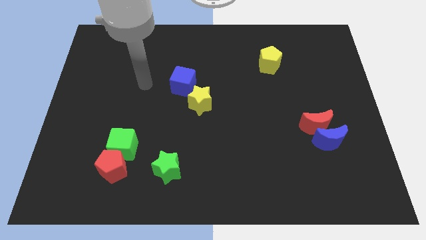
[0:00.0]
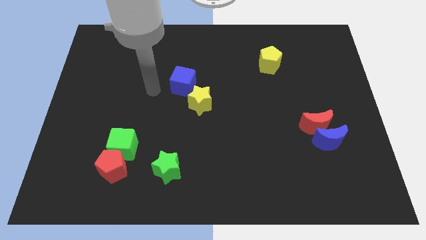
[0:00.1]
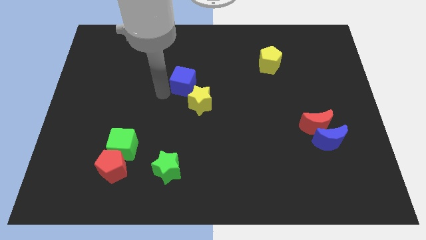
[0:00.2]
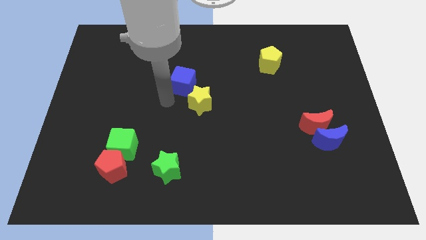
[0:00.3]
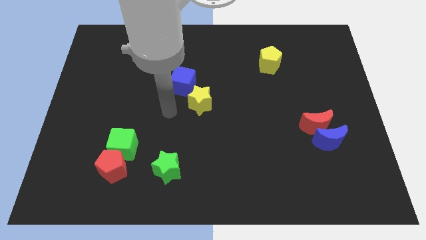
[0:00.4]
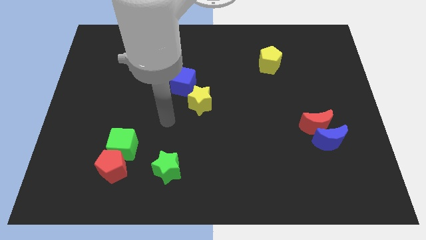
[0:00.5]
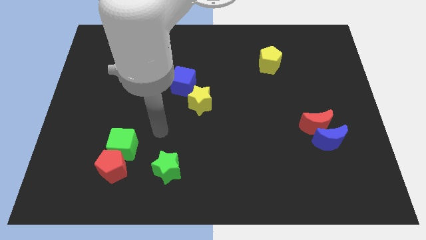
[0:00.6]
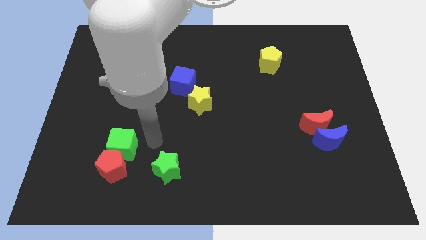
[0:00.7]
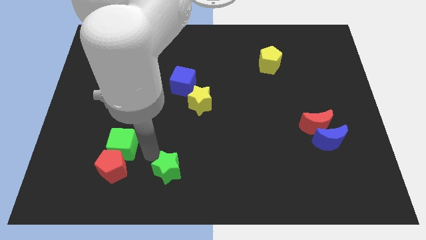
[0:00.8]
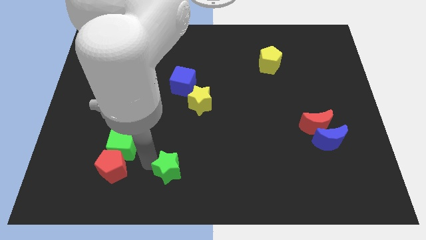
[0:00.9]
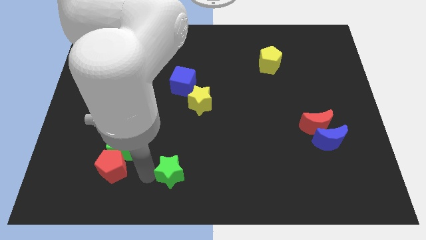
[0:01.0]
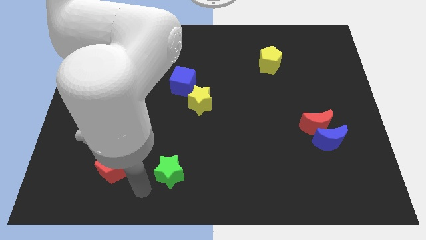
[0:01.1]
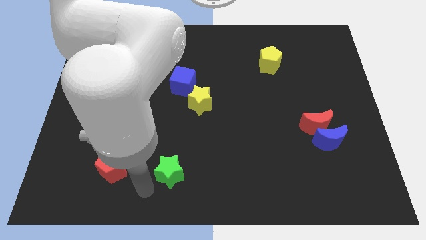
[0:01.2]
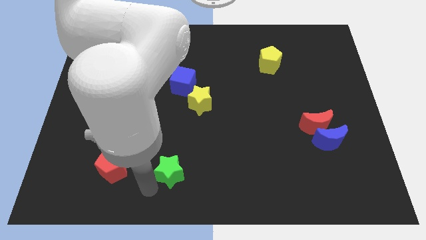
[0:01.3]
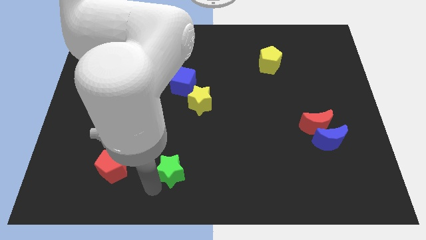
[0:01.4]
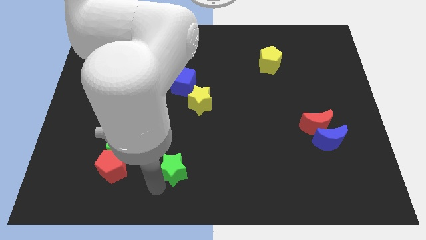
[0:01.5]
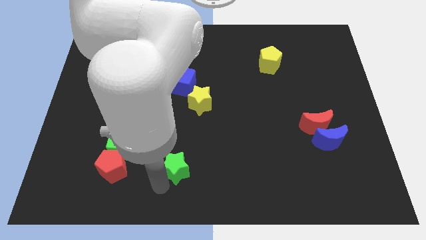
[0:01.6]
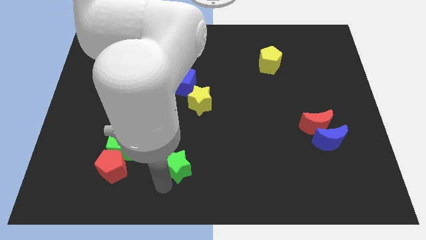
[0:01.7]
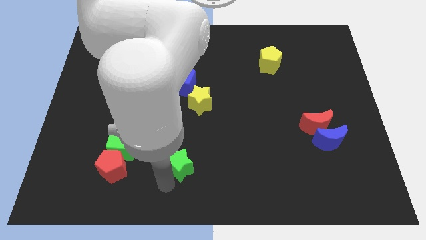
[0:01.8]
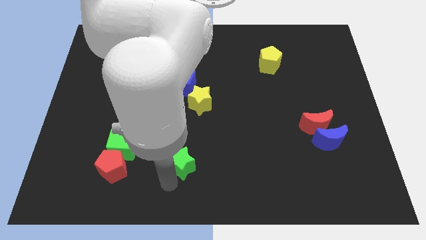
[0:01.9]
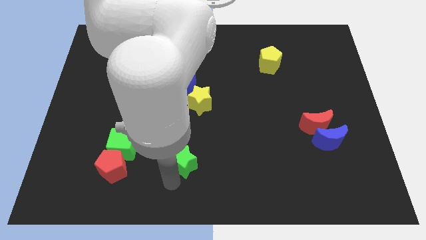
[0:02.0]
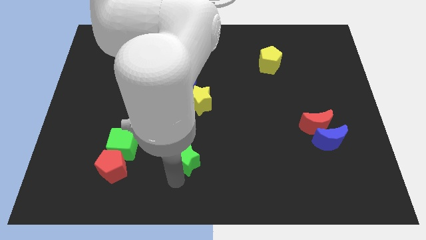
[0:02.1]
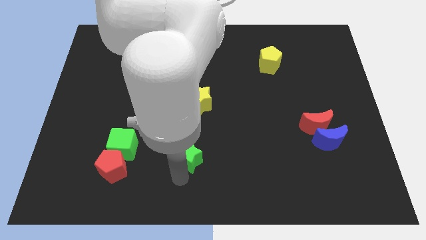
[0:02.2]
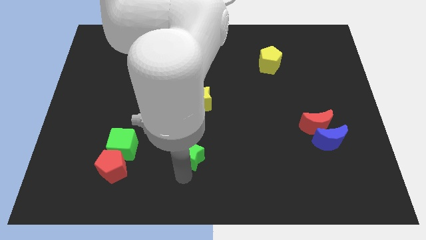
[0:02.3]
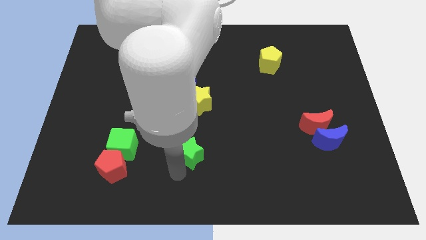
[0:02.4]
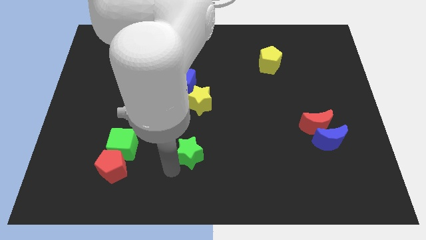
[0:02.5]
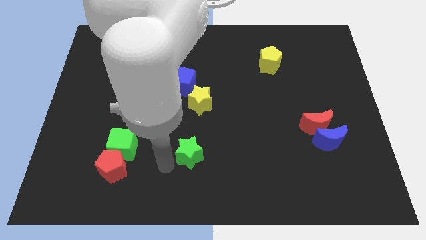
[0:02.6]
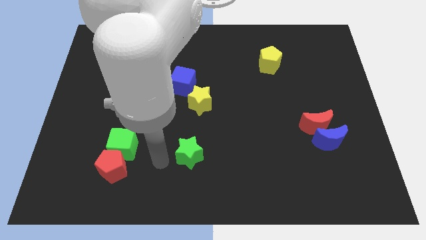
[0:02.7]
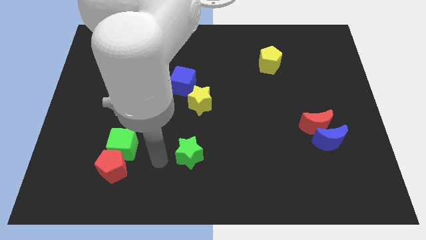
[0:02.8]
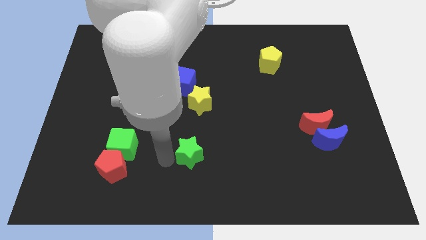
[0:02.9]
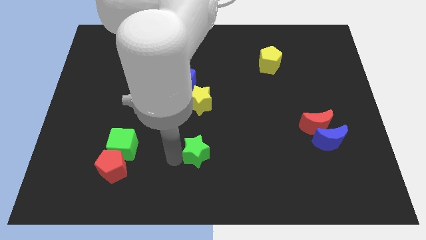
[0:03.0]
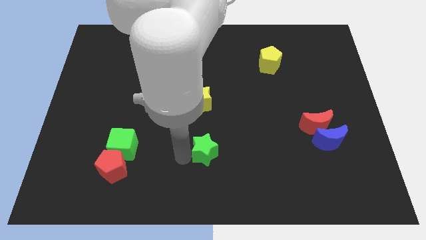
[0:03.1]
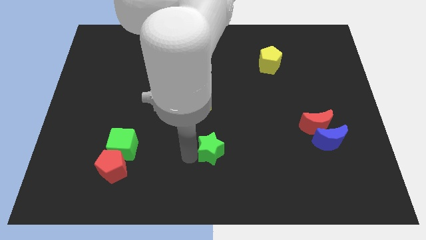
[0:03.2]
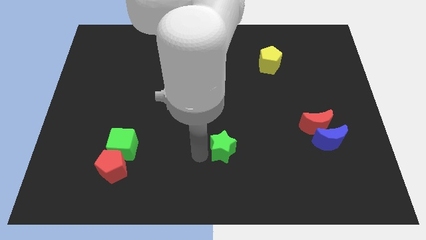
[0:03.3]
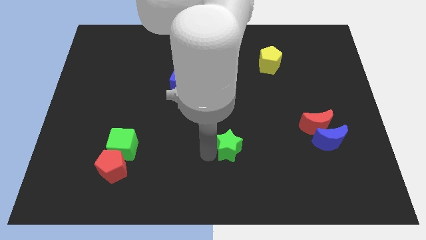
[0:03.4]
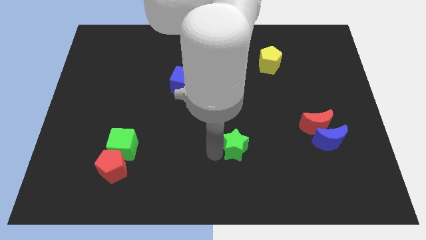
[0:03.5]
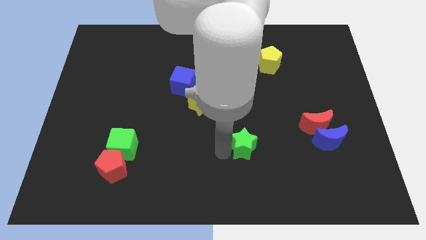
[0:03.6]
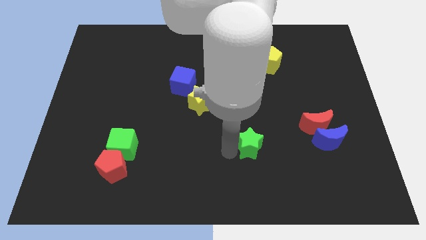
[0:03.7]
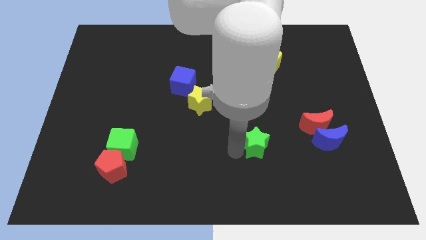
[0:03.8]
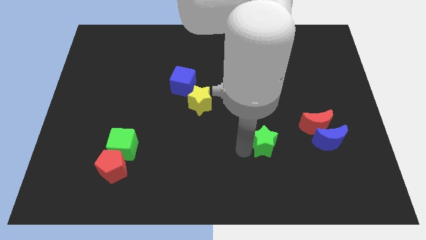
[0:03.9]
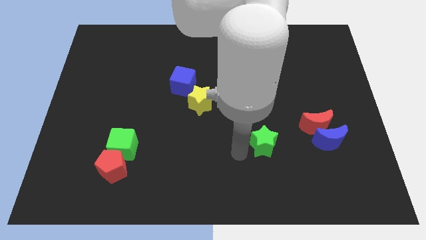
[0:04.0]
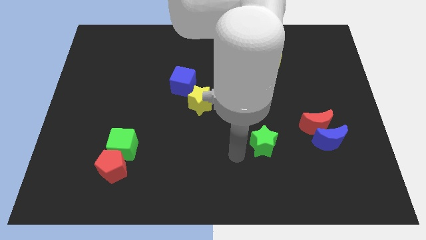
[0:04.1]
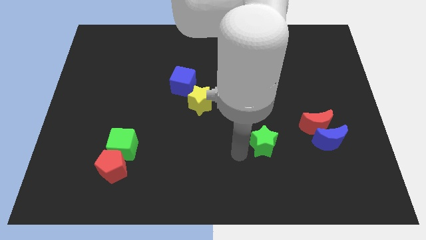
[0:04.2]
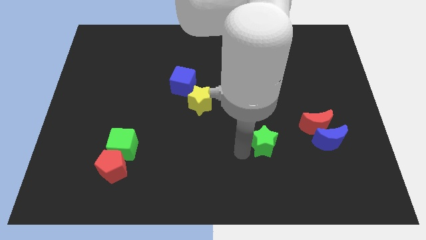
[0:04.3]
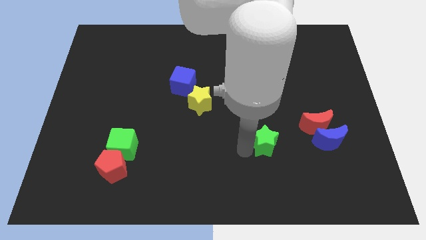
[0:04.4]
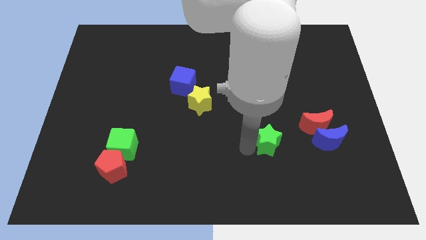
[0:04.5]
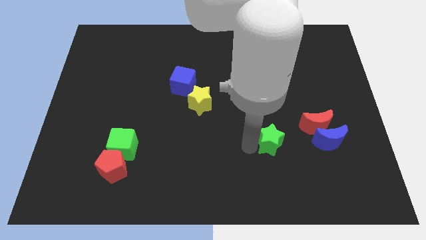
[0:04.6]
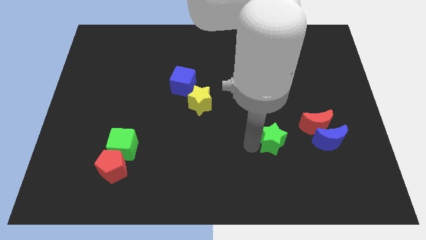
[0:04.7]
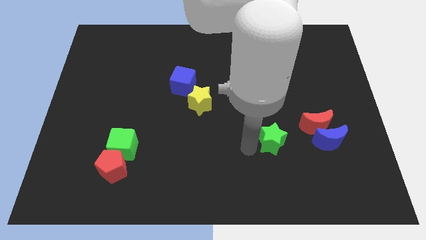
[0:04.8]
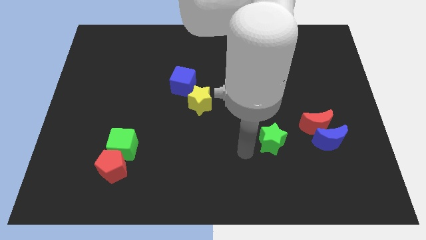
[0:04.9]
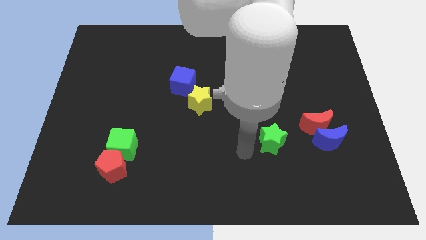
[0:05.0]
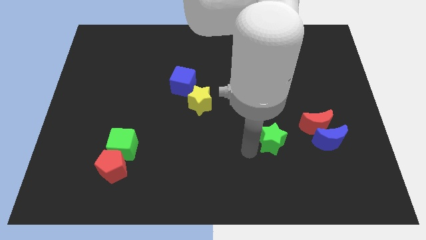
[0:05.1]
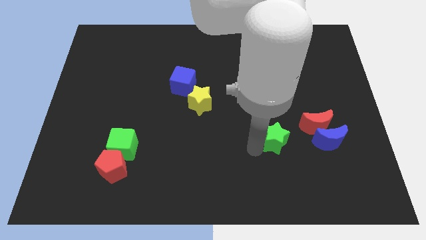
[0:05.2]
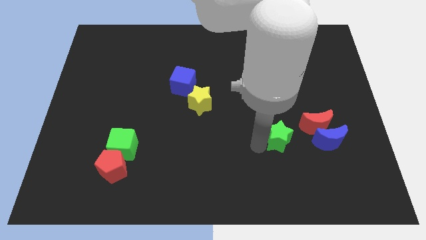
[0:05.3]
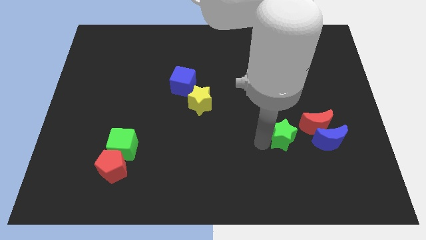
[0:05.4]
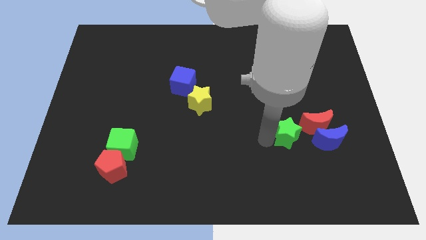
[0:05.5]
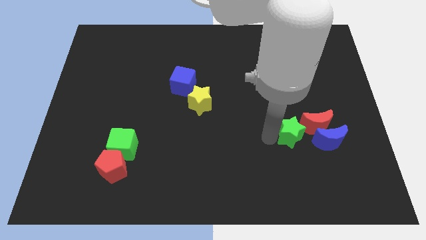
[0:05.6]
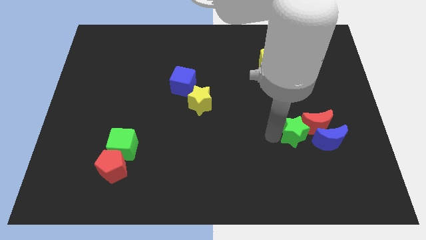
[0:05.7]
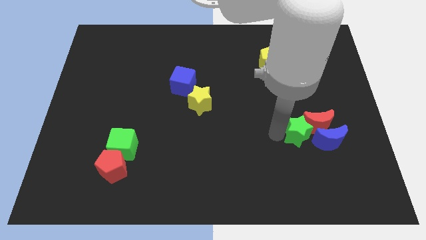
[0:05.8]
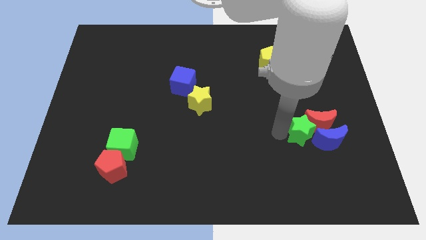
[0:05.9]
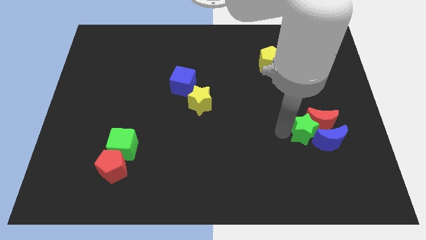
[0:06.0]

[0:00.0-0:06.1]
put the green star next to the blue moon

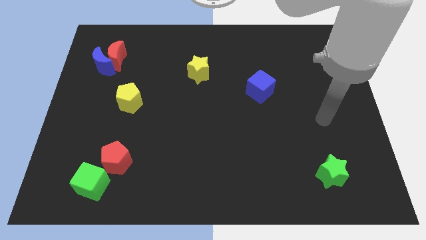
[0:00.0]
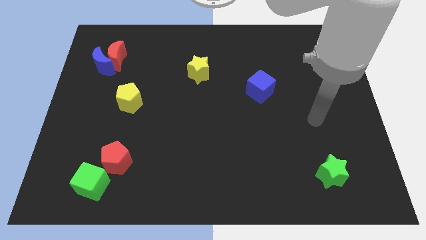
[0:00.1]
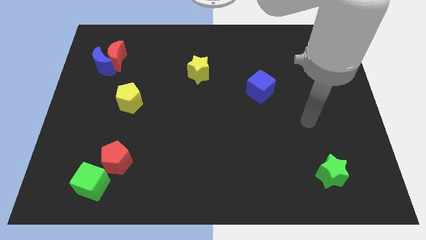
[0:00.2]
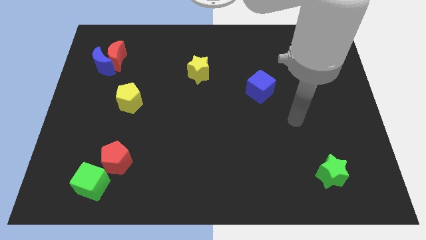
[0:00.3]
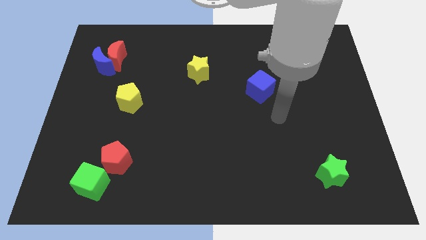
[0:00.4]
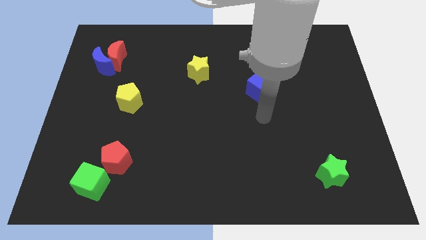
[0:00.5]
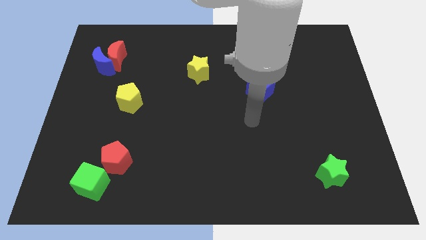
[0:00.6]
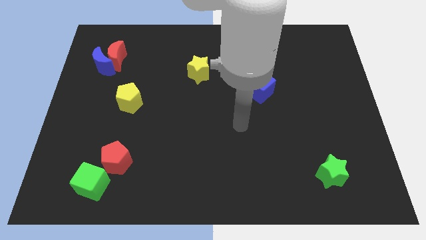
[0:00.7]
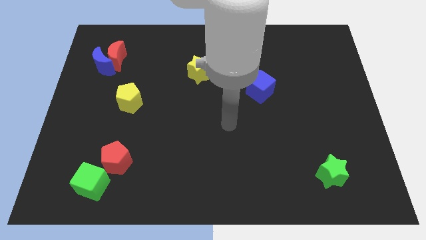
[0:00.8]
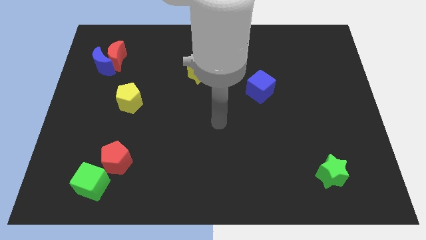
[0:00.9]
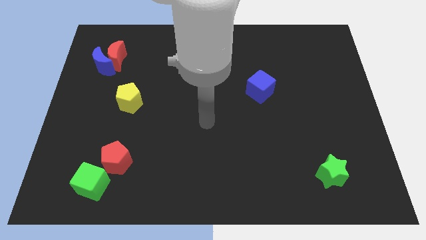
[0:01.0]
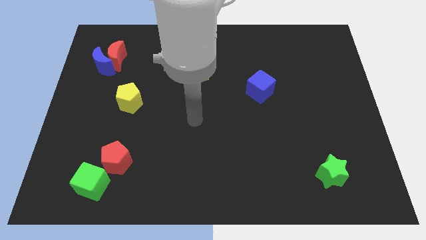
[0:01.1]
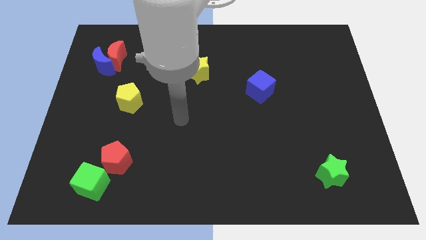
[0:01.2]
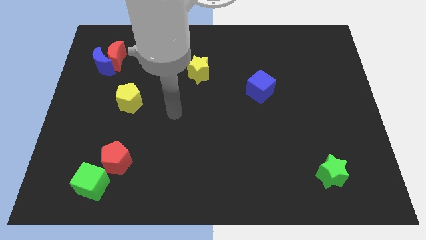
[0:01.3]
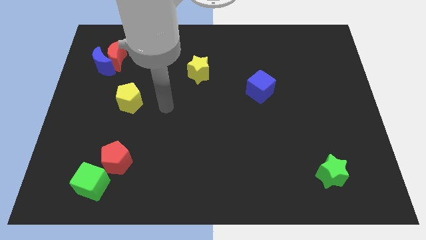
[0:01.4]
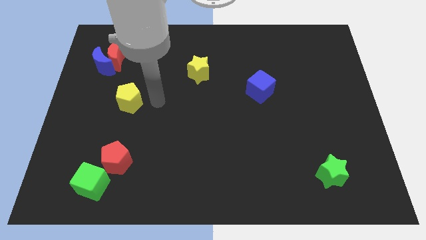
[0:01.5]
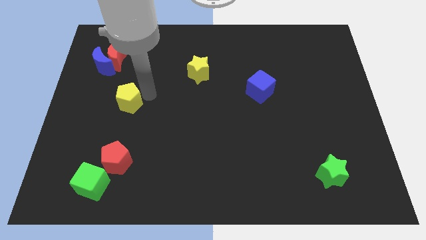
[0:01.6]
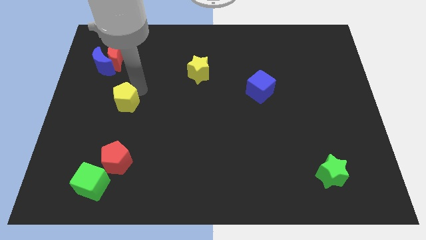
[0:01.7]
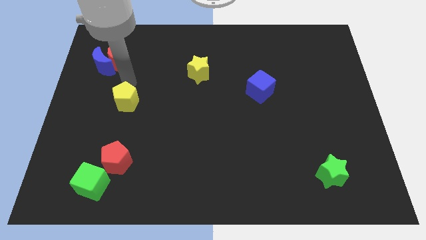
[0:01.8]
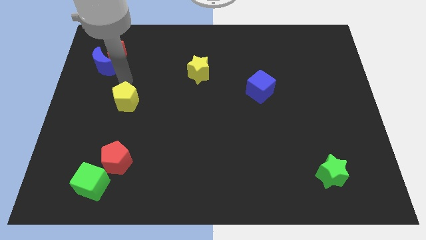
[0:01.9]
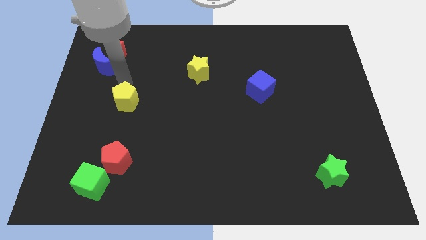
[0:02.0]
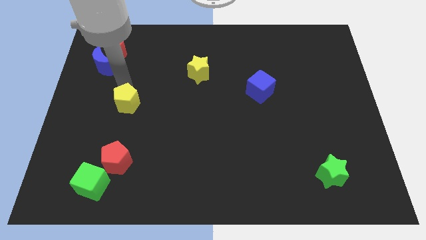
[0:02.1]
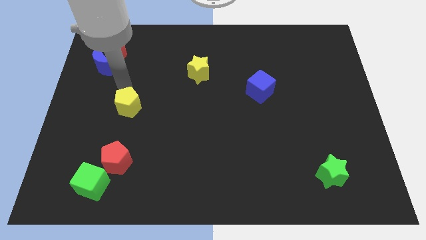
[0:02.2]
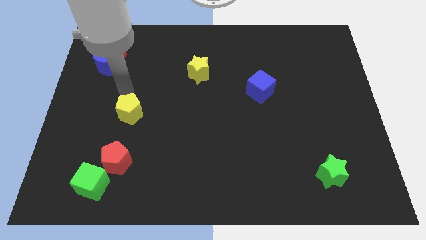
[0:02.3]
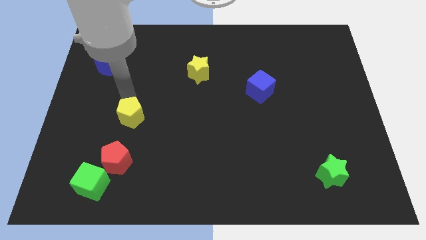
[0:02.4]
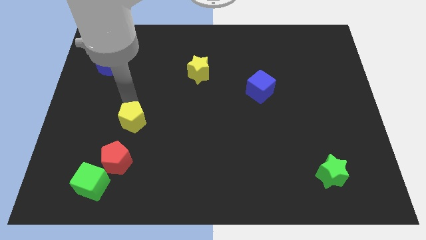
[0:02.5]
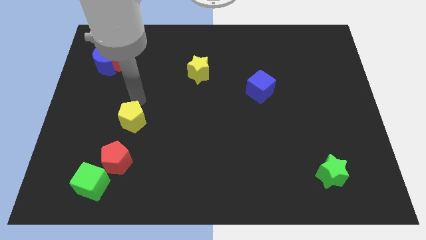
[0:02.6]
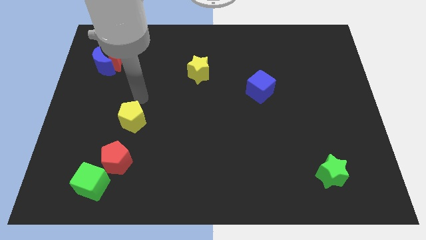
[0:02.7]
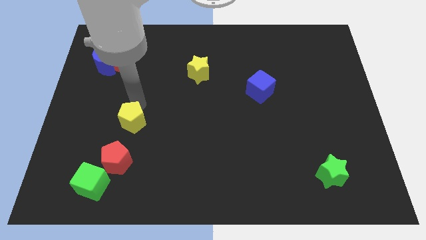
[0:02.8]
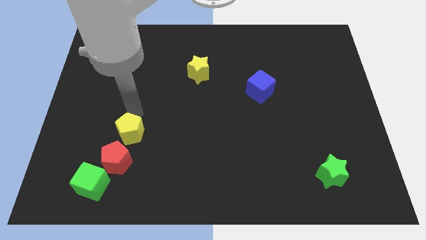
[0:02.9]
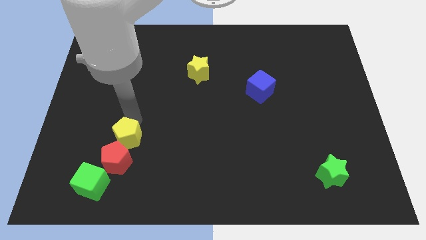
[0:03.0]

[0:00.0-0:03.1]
push the yellow pentagon next to the red pentagon
